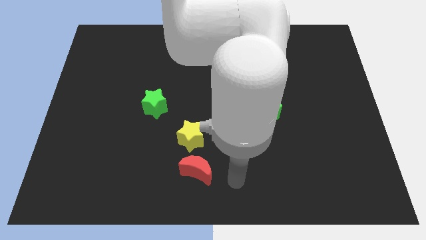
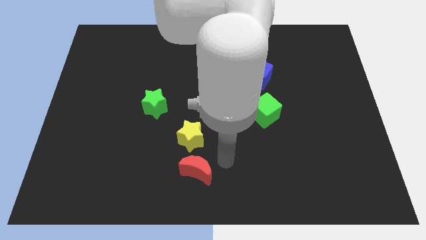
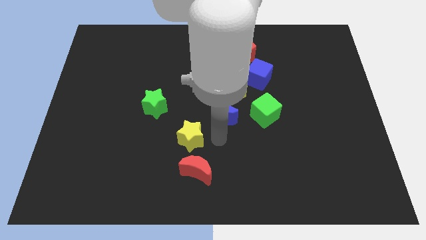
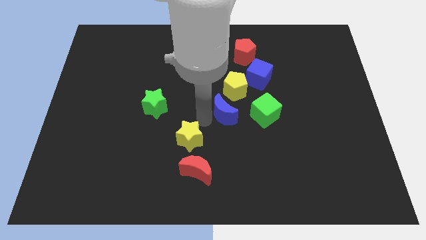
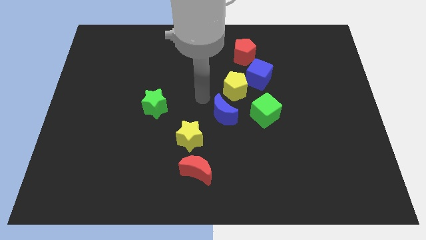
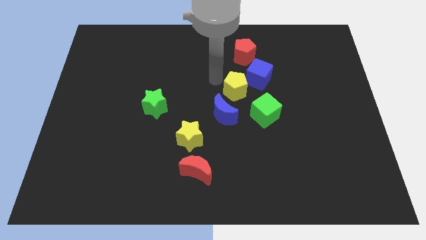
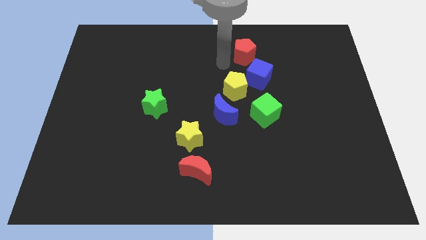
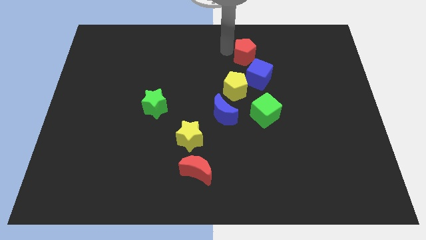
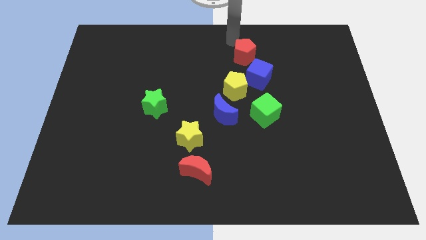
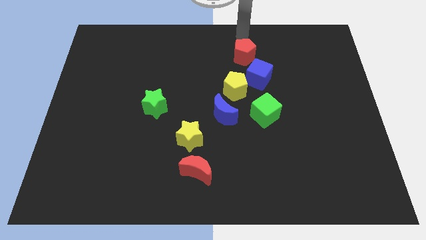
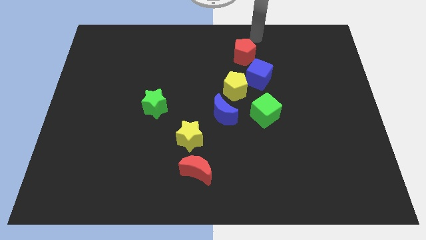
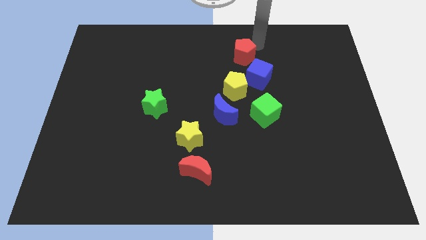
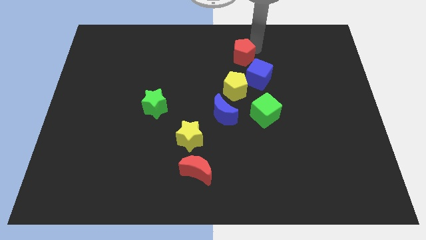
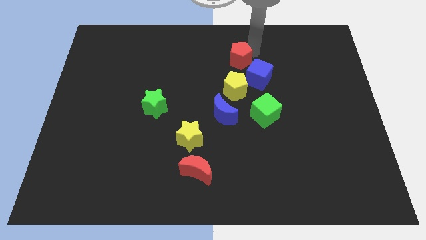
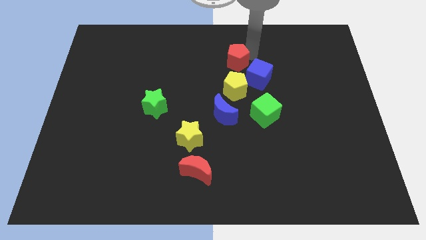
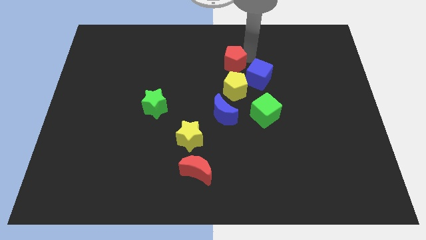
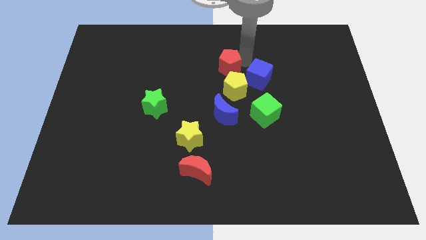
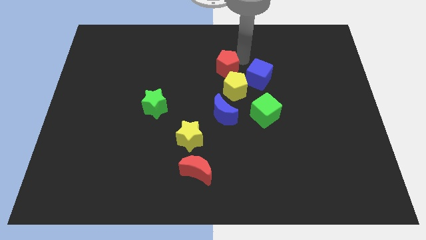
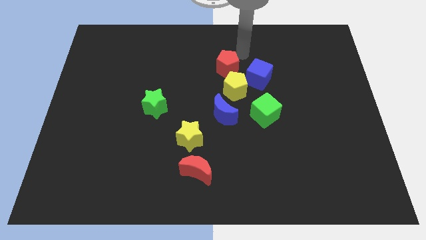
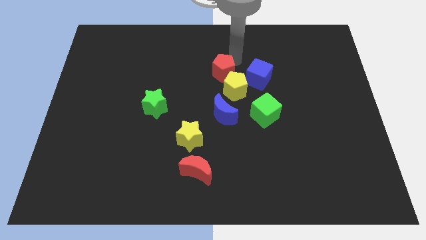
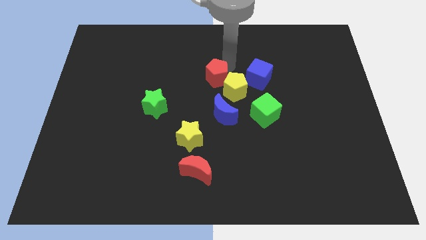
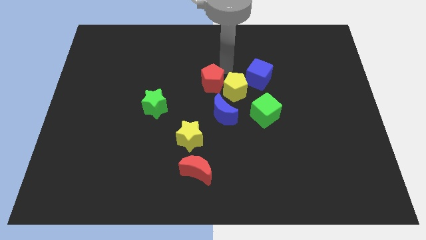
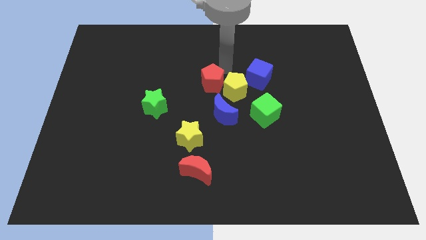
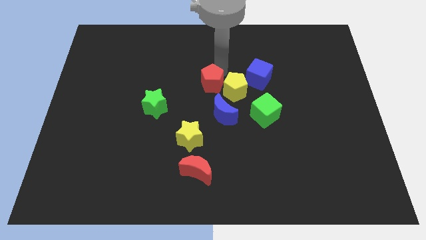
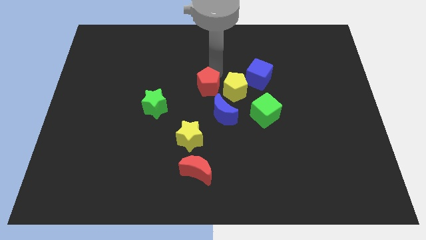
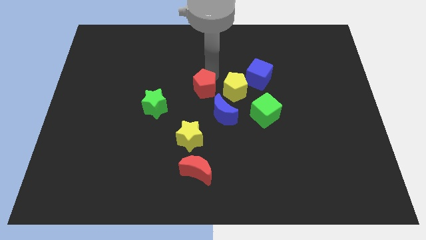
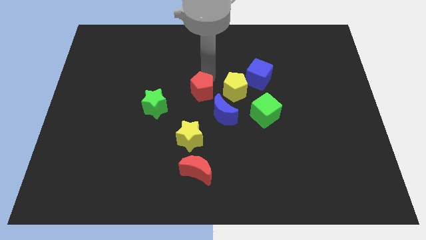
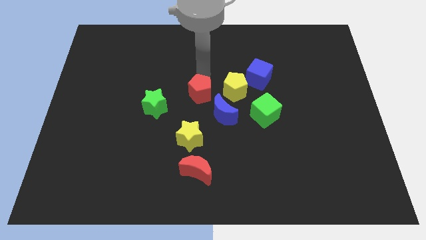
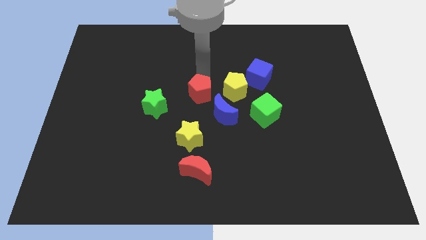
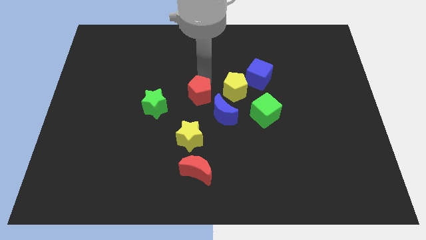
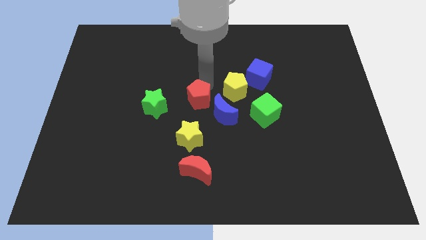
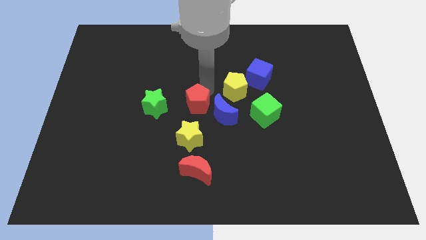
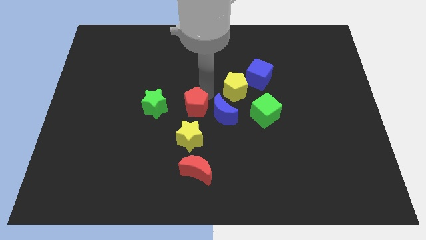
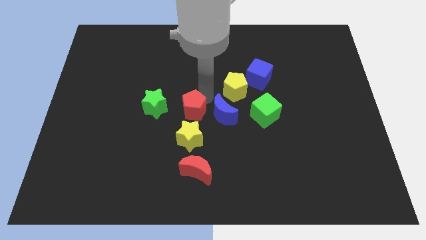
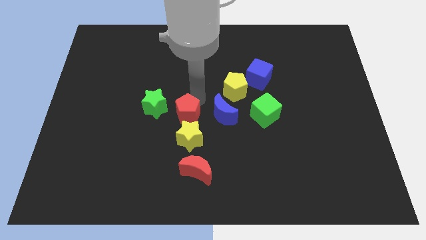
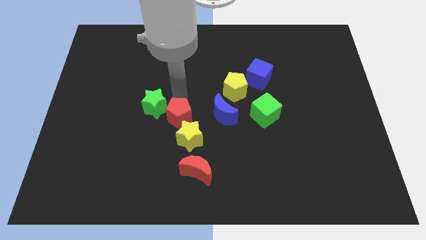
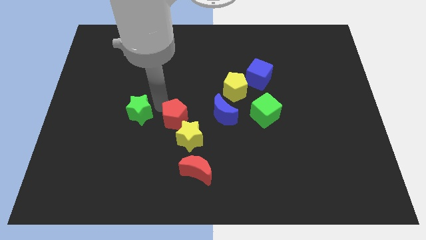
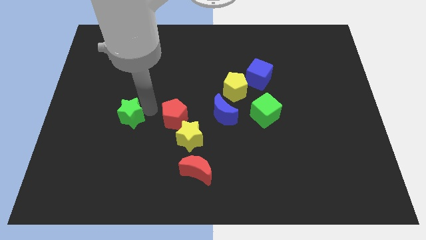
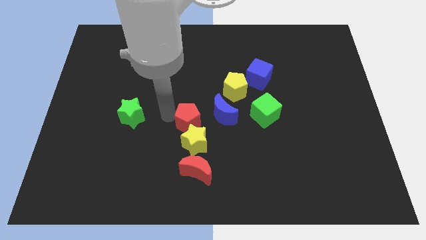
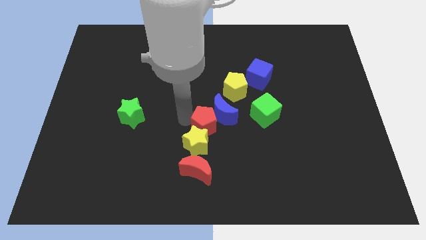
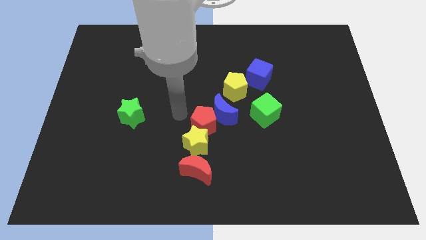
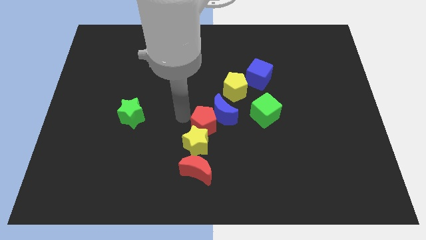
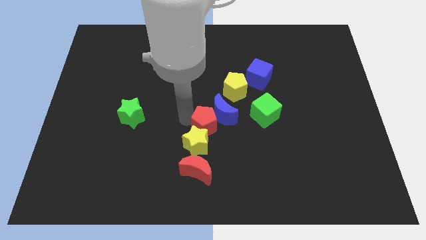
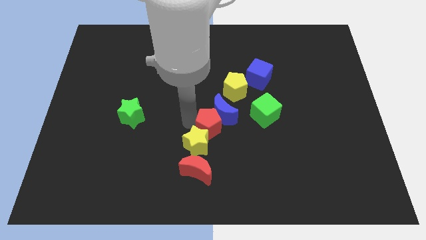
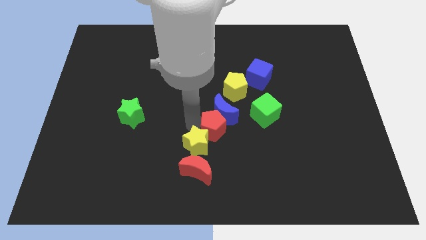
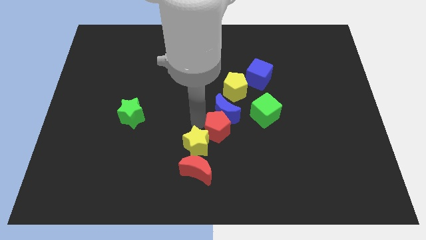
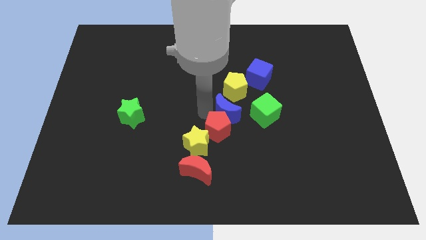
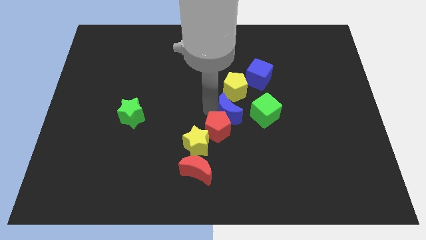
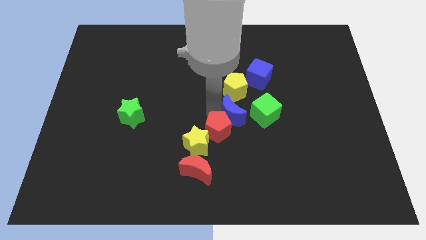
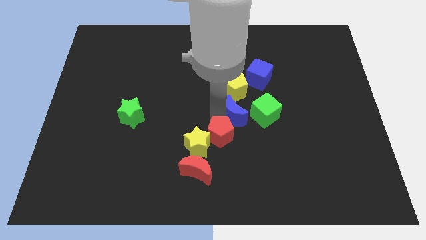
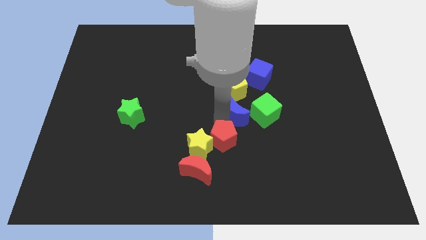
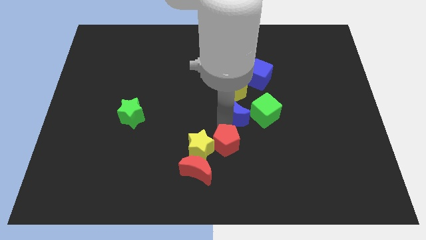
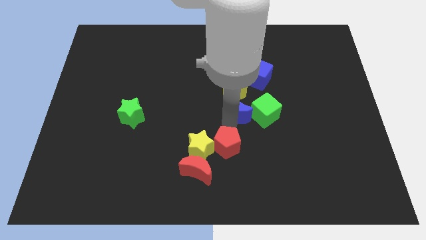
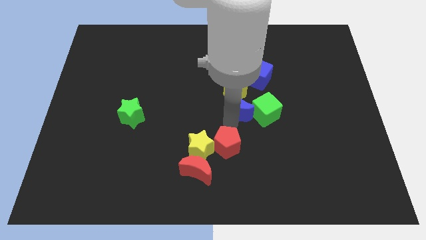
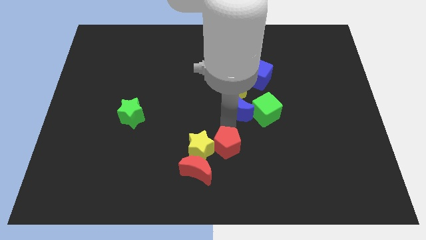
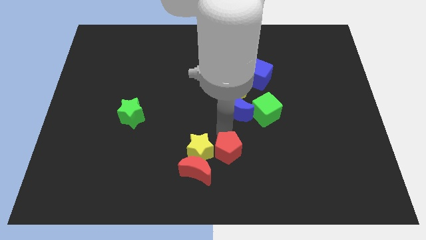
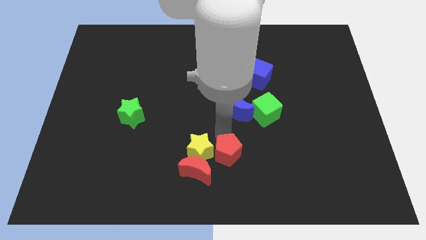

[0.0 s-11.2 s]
move the red pentagon to the bottom

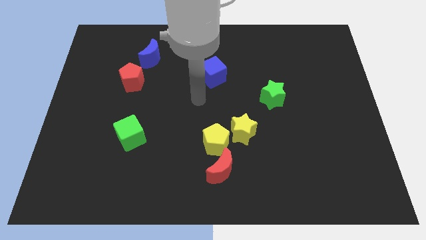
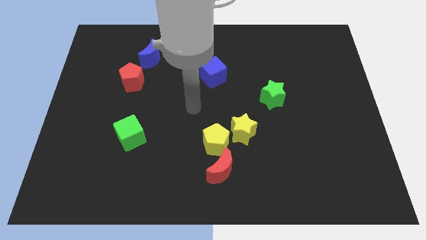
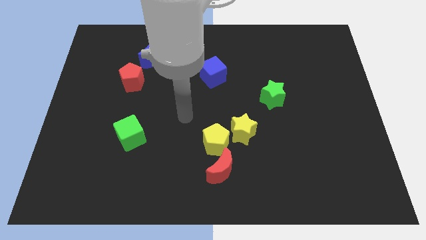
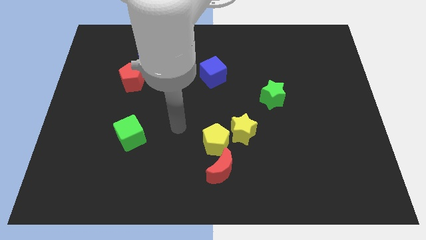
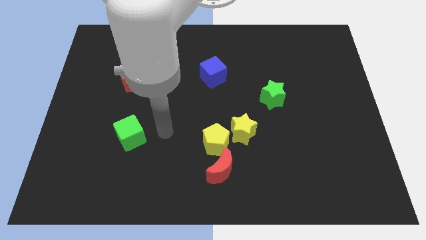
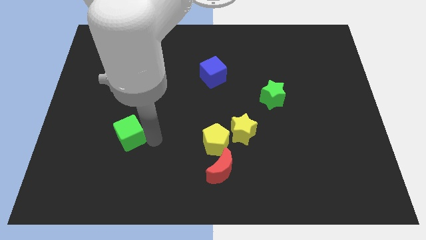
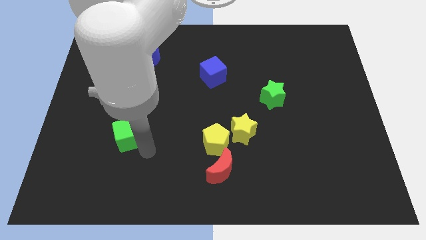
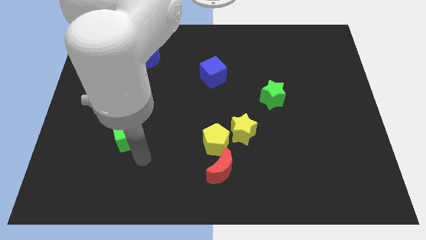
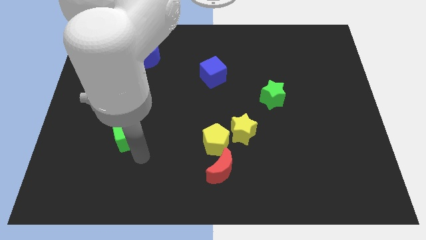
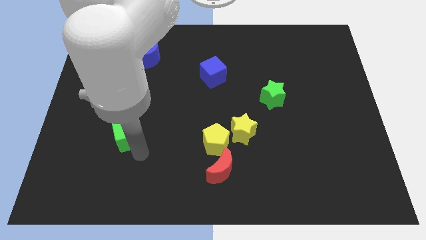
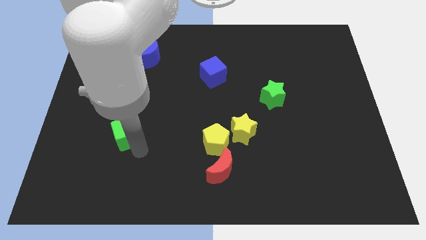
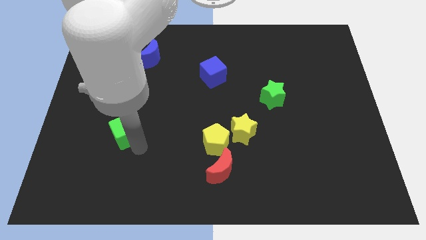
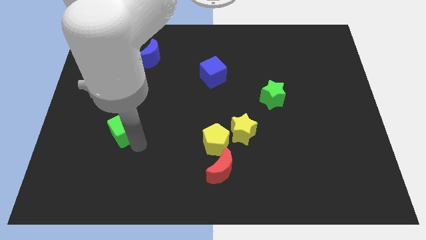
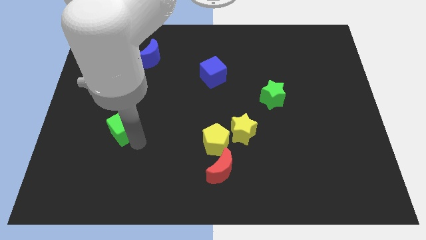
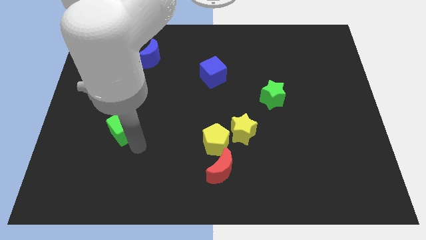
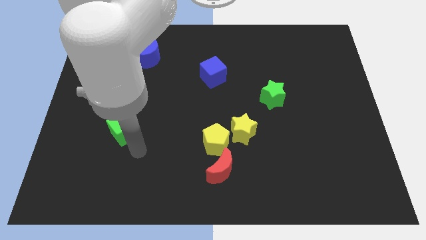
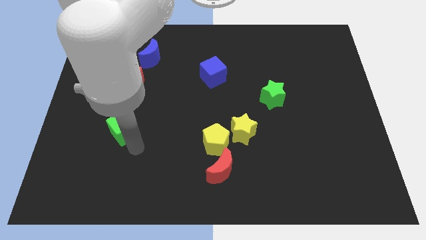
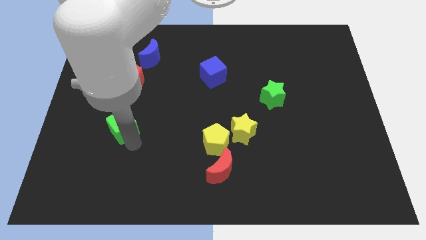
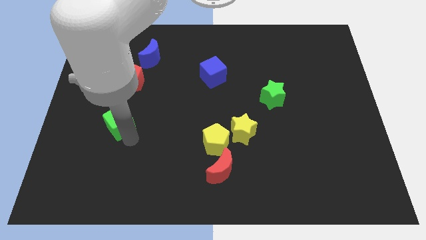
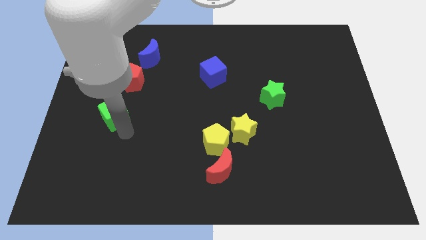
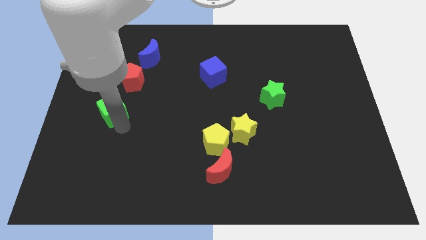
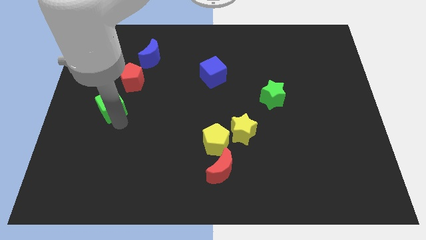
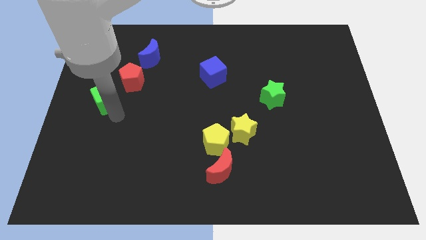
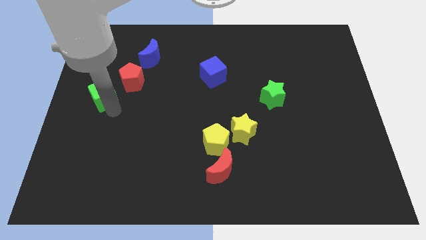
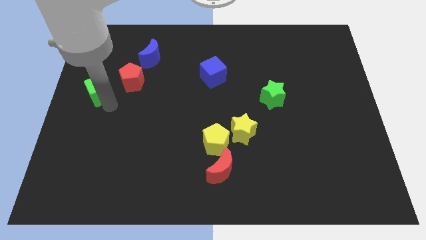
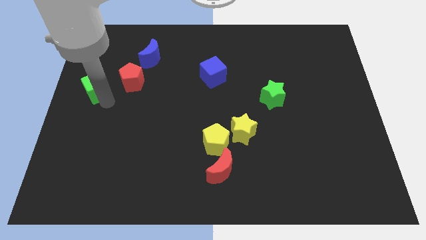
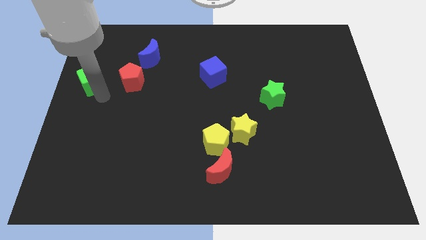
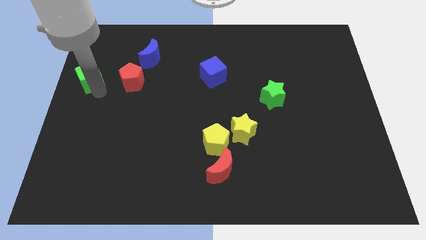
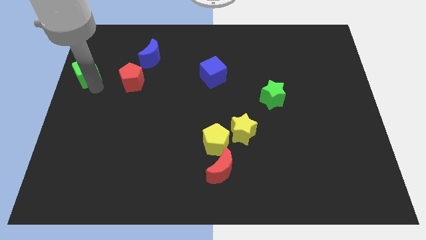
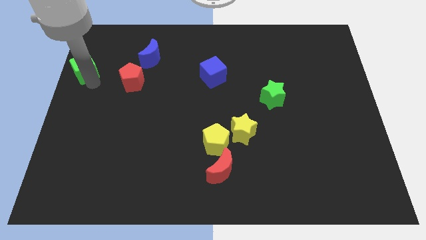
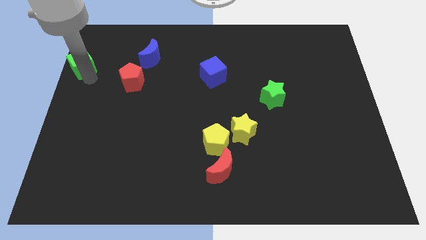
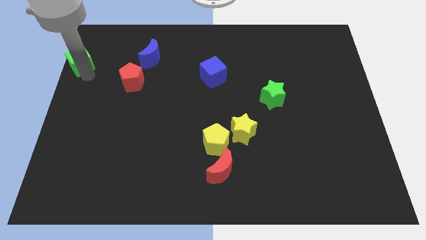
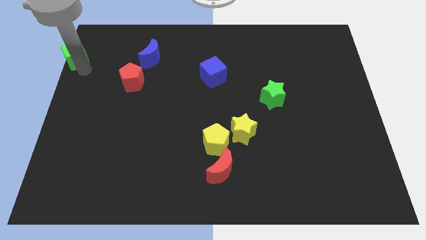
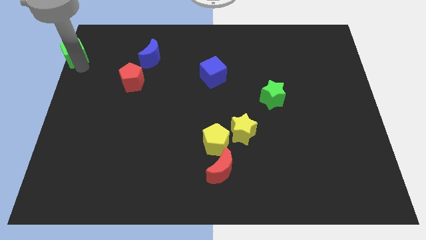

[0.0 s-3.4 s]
slide the green cube to the top left corner
